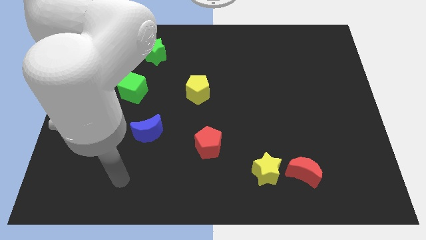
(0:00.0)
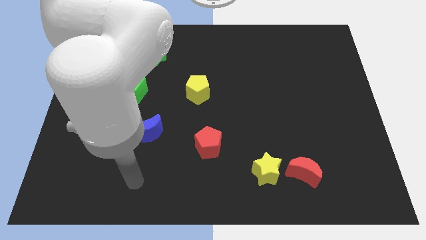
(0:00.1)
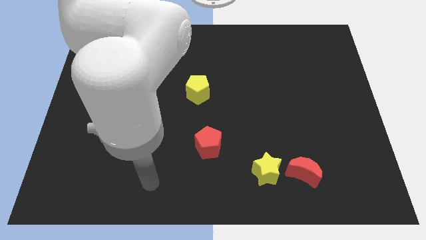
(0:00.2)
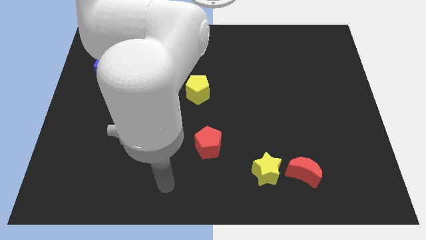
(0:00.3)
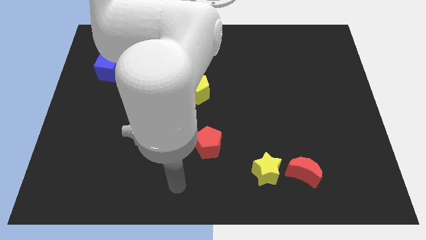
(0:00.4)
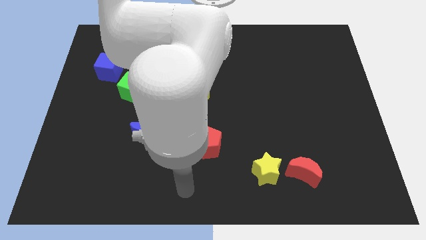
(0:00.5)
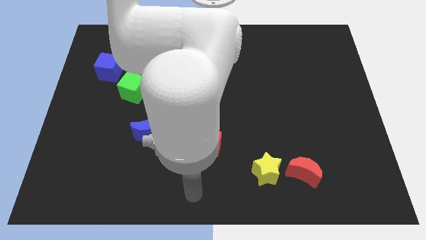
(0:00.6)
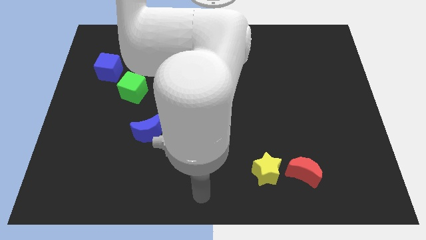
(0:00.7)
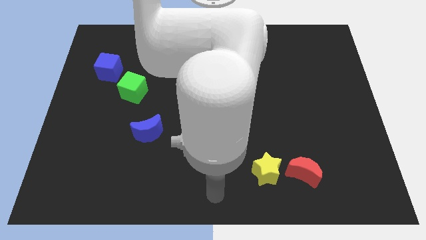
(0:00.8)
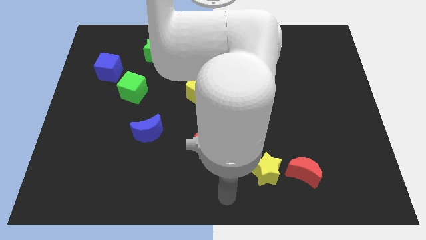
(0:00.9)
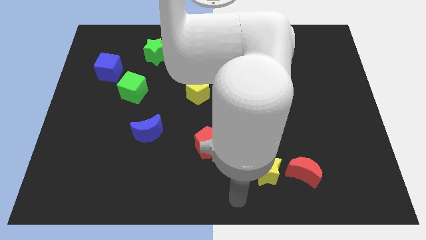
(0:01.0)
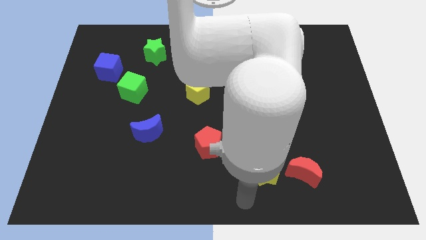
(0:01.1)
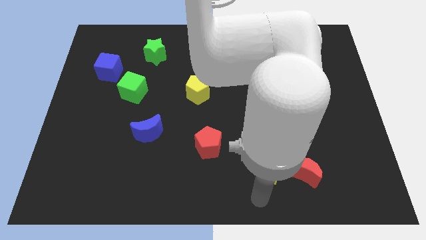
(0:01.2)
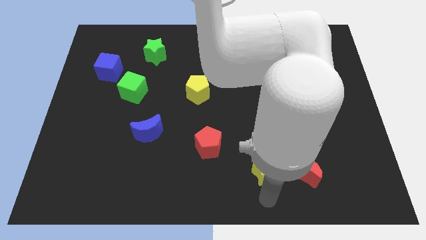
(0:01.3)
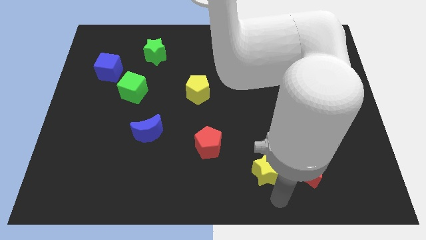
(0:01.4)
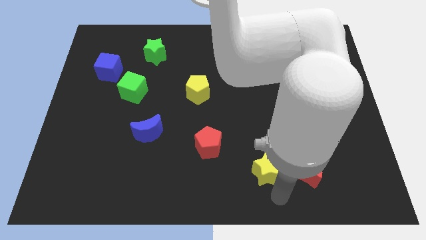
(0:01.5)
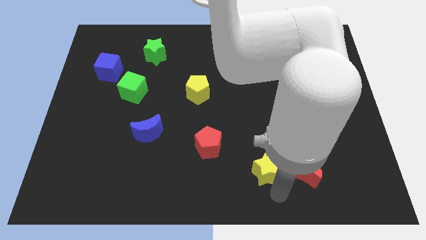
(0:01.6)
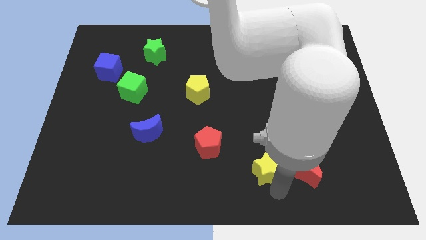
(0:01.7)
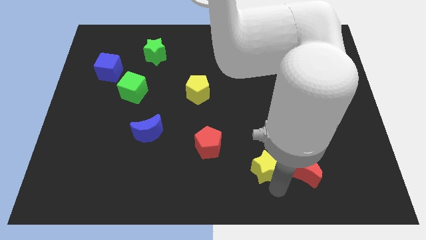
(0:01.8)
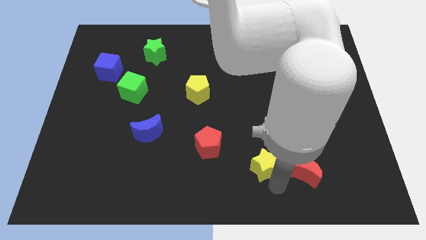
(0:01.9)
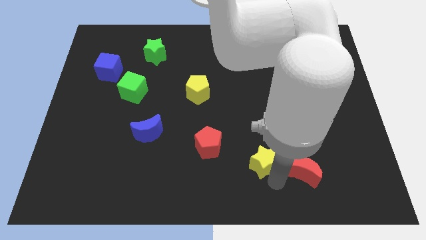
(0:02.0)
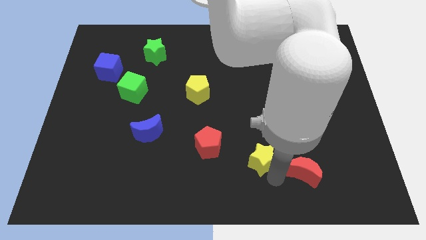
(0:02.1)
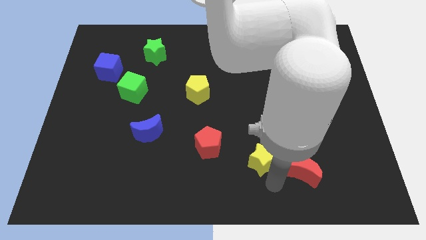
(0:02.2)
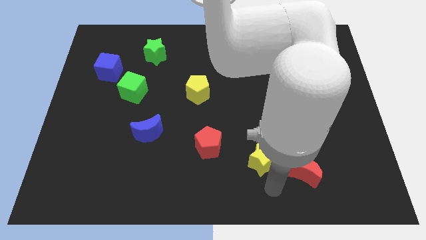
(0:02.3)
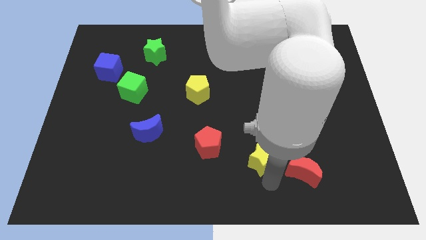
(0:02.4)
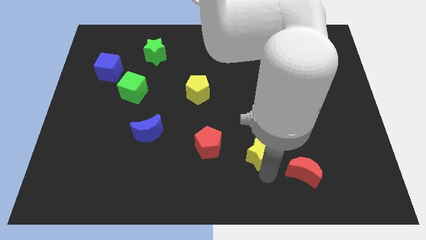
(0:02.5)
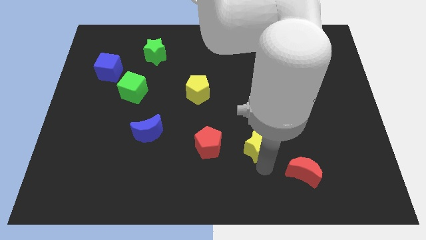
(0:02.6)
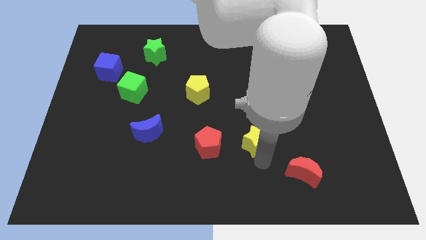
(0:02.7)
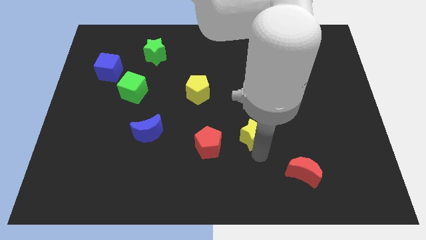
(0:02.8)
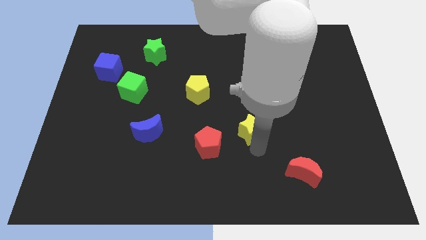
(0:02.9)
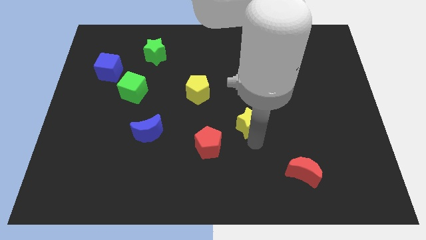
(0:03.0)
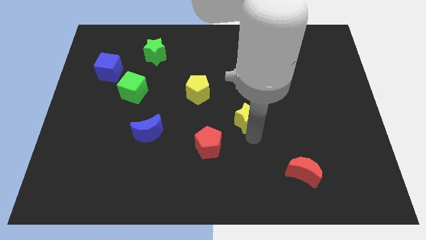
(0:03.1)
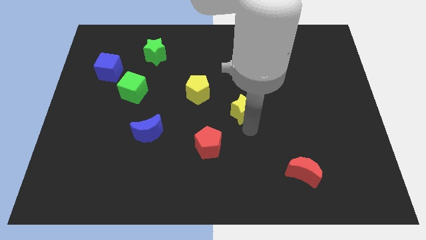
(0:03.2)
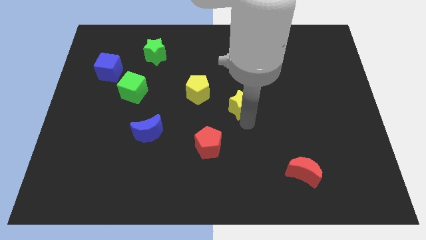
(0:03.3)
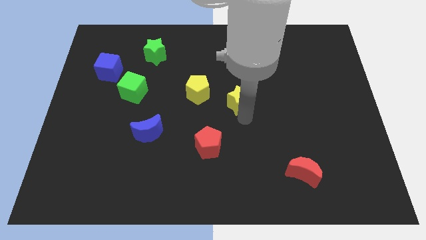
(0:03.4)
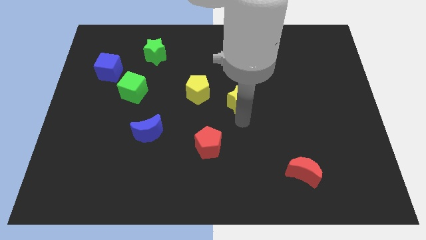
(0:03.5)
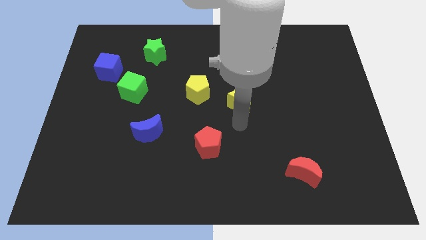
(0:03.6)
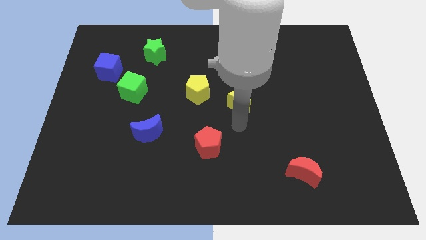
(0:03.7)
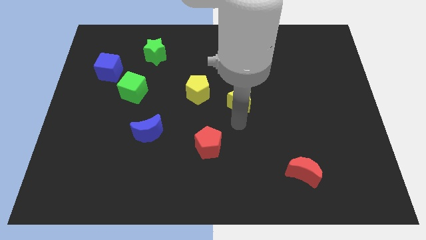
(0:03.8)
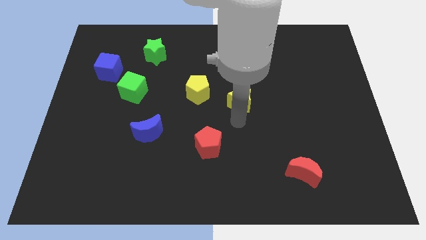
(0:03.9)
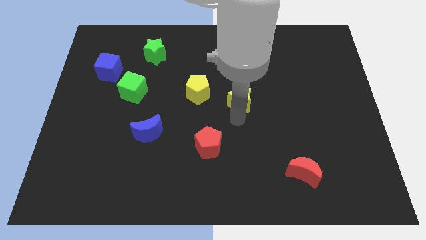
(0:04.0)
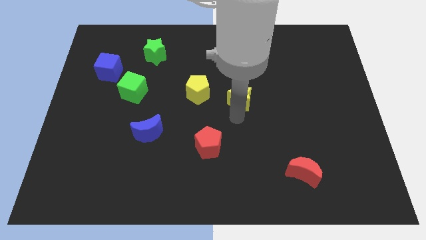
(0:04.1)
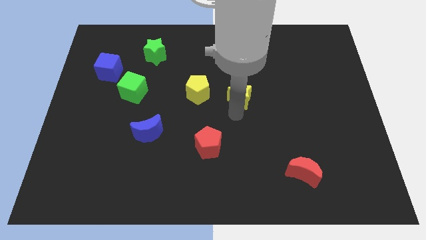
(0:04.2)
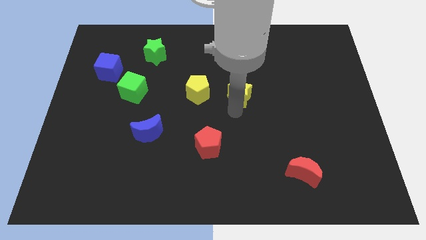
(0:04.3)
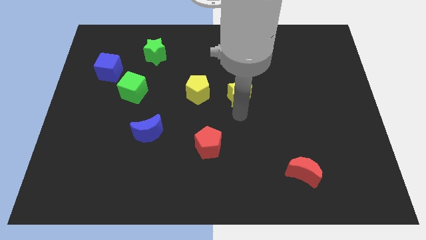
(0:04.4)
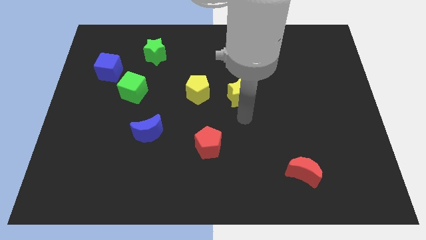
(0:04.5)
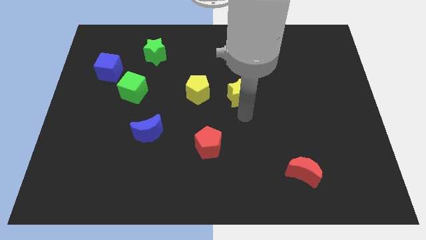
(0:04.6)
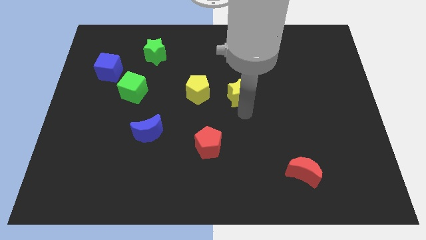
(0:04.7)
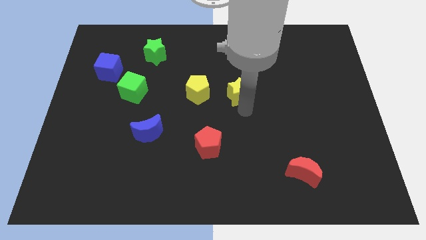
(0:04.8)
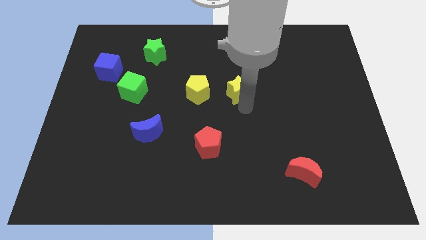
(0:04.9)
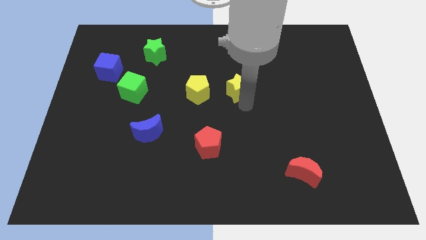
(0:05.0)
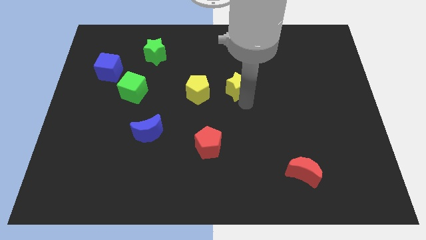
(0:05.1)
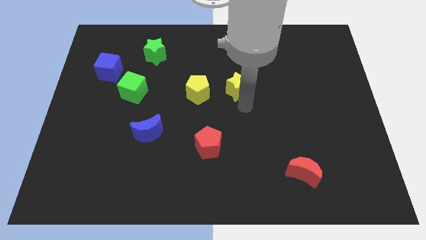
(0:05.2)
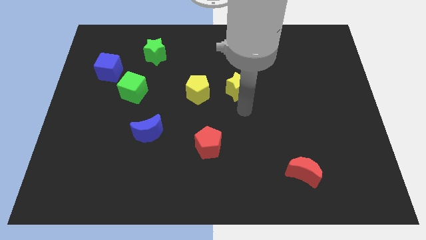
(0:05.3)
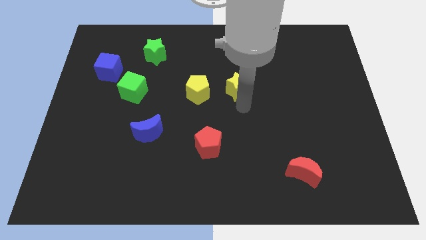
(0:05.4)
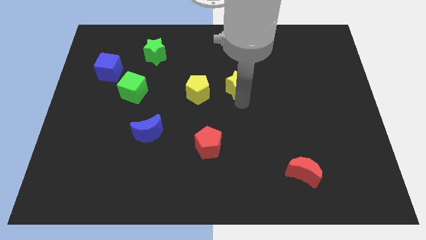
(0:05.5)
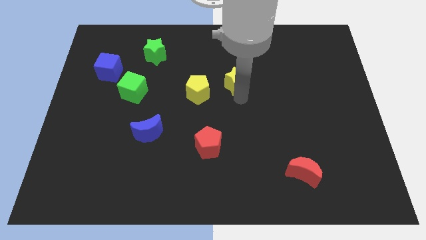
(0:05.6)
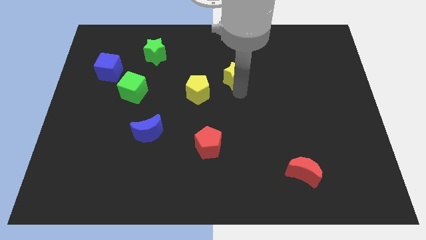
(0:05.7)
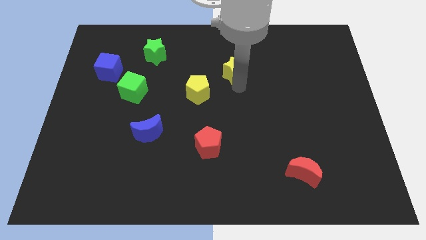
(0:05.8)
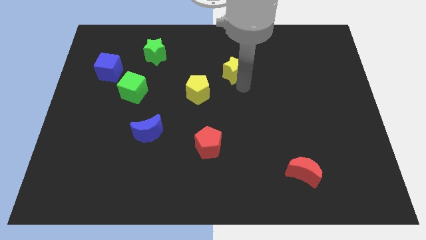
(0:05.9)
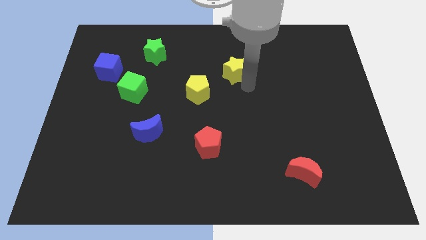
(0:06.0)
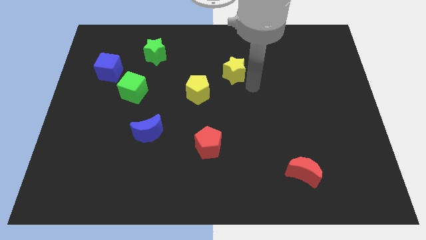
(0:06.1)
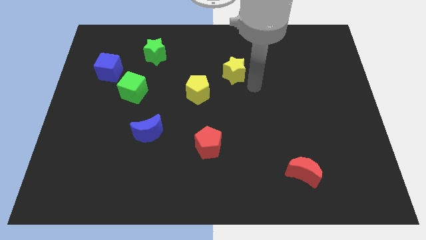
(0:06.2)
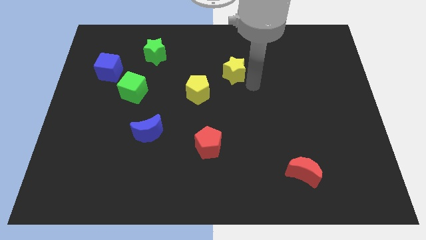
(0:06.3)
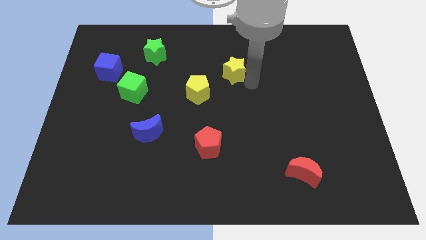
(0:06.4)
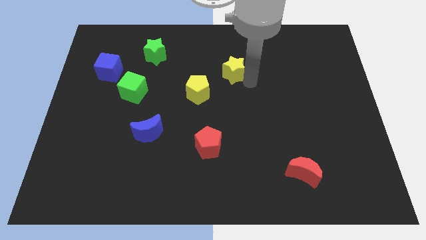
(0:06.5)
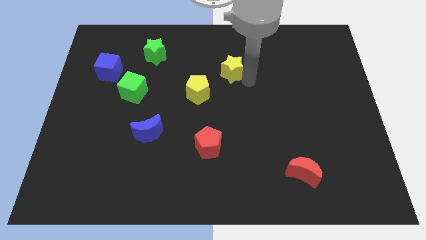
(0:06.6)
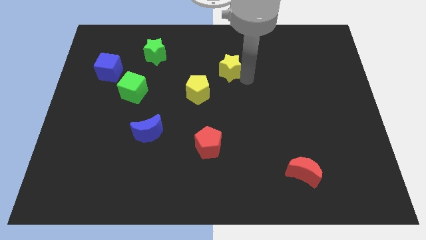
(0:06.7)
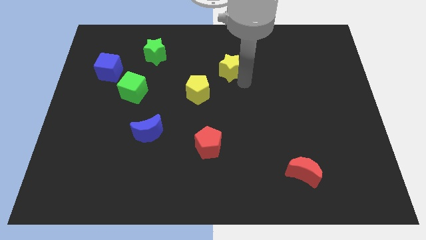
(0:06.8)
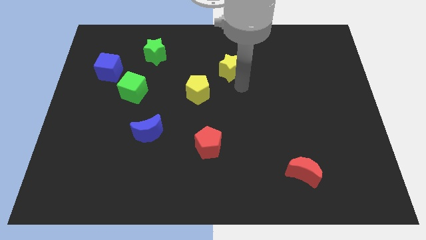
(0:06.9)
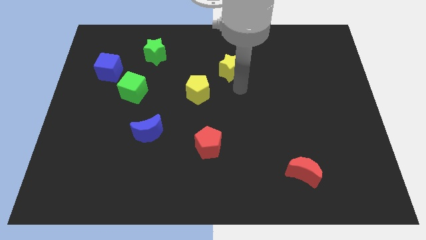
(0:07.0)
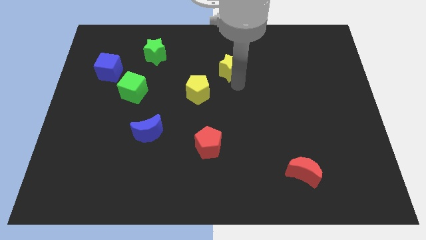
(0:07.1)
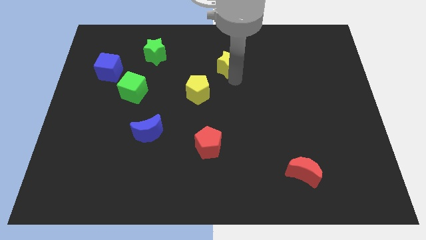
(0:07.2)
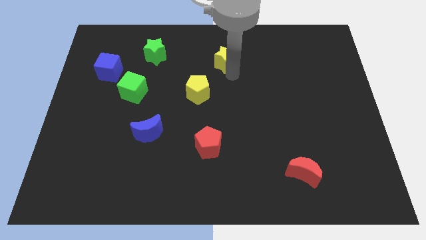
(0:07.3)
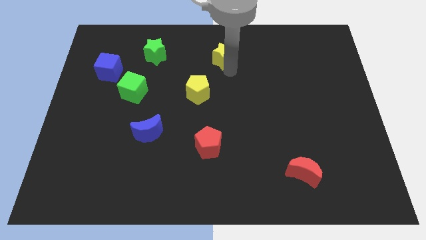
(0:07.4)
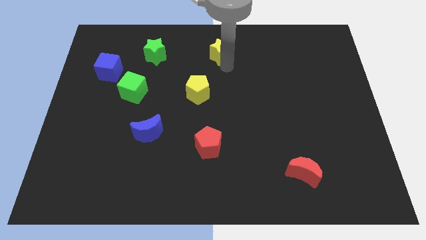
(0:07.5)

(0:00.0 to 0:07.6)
slide the yellow star to the top side
